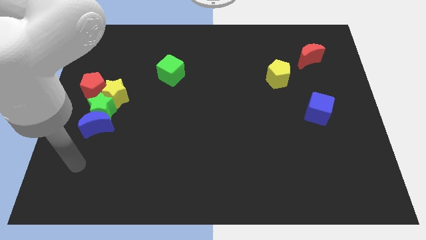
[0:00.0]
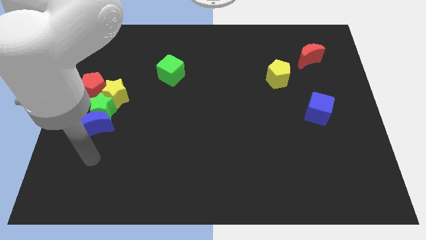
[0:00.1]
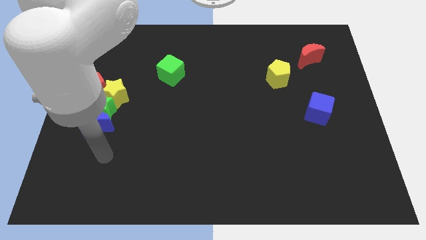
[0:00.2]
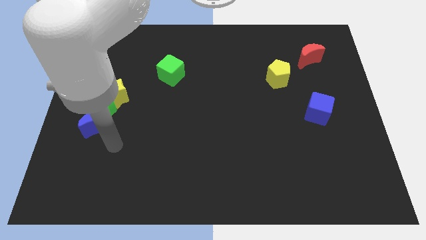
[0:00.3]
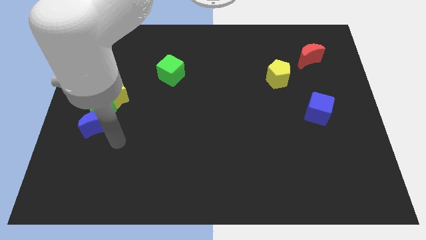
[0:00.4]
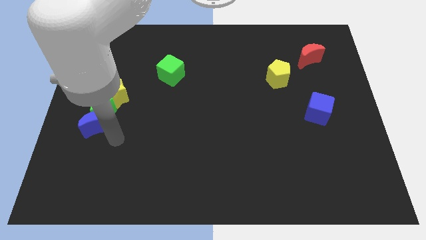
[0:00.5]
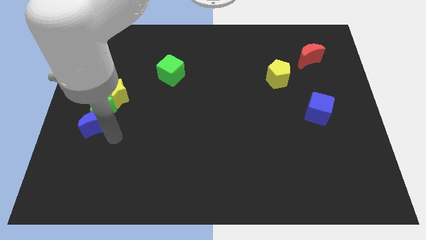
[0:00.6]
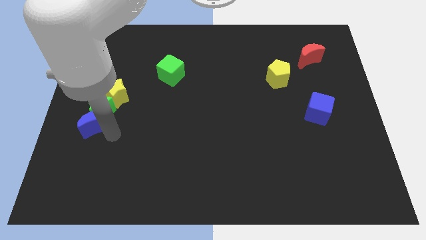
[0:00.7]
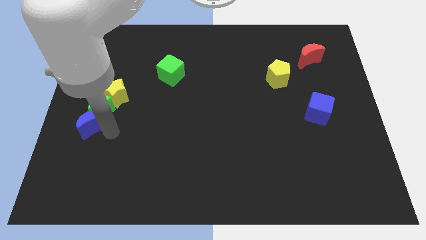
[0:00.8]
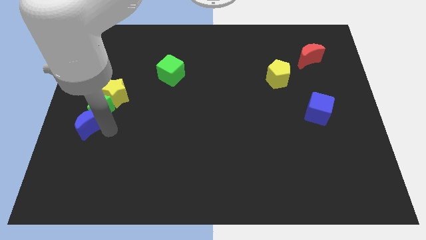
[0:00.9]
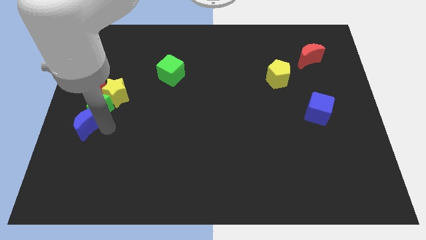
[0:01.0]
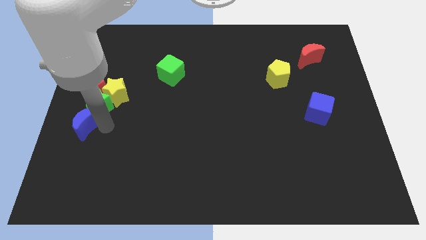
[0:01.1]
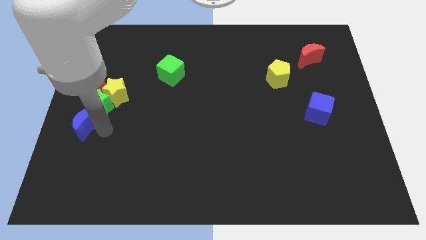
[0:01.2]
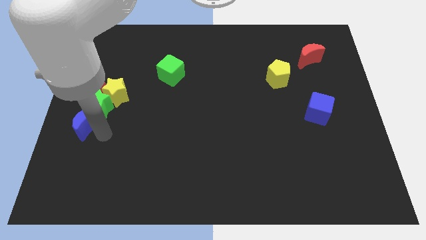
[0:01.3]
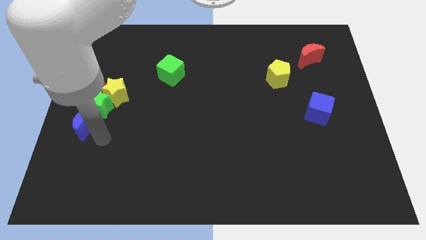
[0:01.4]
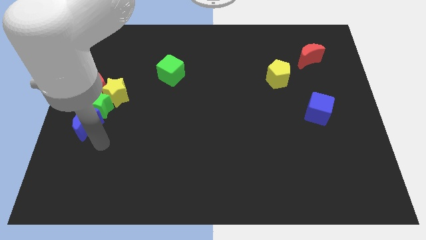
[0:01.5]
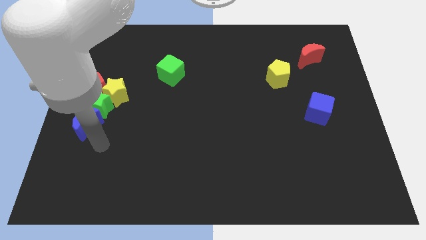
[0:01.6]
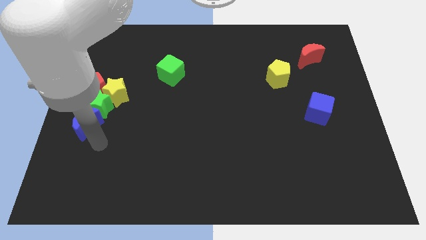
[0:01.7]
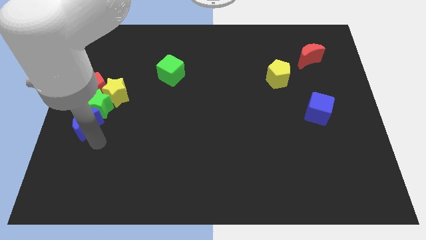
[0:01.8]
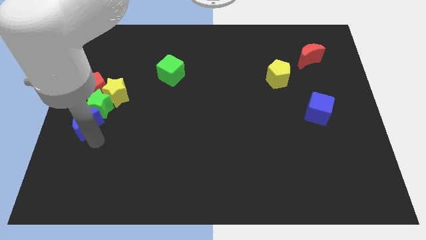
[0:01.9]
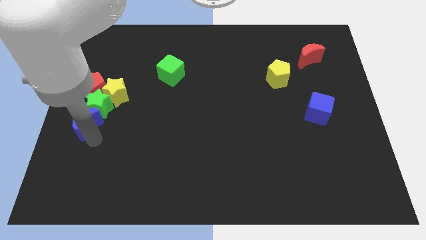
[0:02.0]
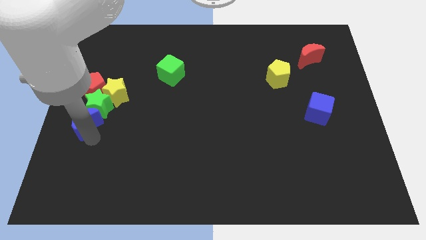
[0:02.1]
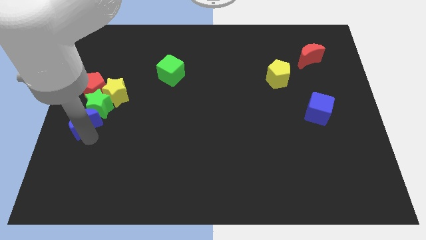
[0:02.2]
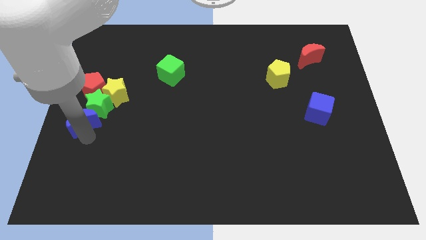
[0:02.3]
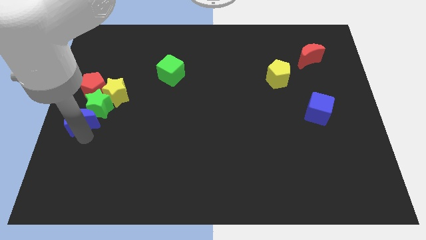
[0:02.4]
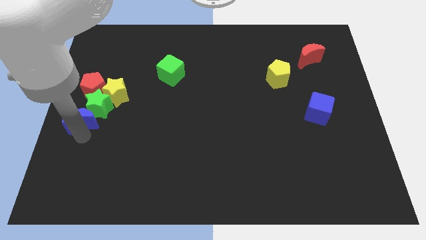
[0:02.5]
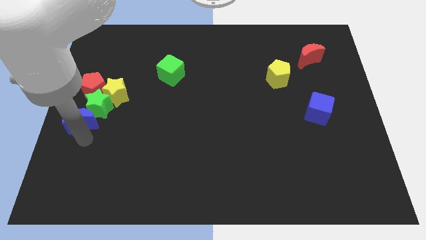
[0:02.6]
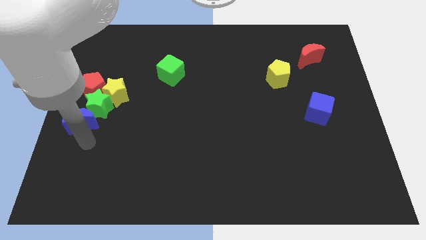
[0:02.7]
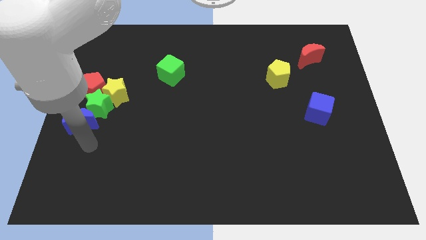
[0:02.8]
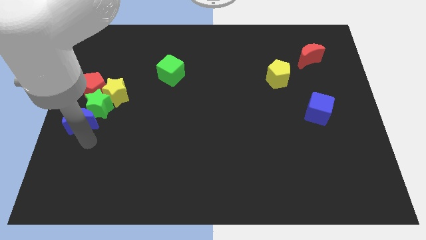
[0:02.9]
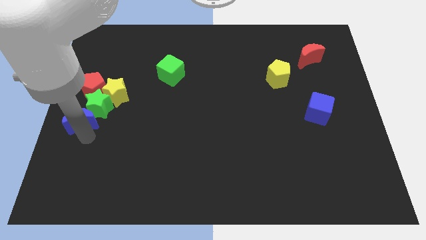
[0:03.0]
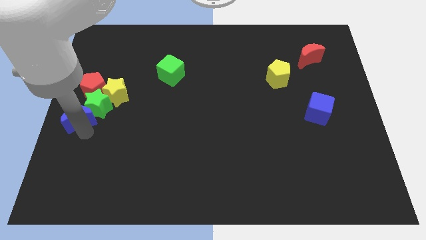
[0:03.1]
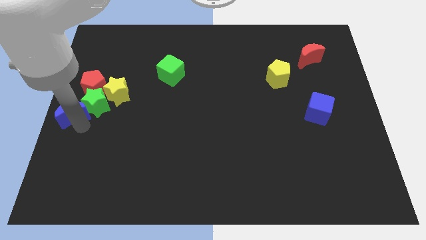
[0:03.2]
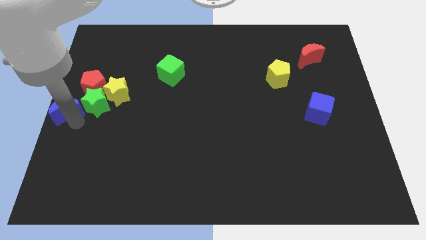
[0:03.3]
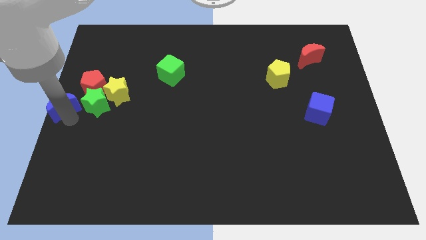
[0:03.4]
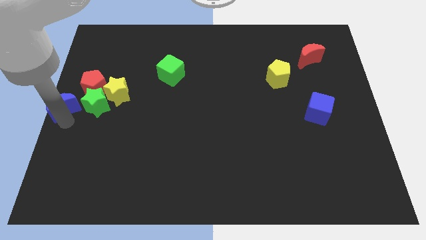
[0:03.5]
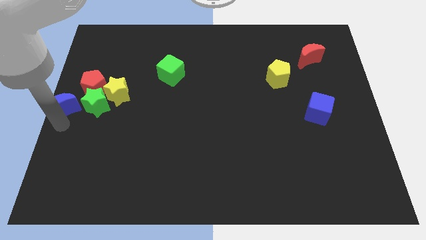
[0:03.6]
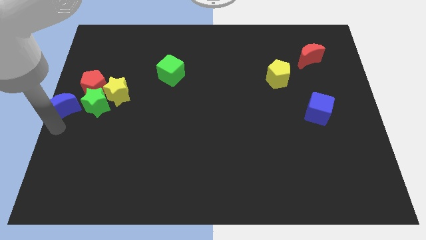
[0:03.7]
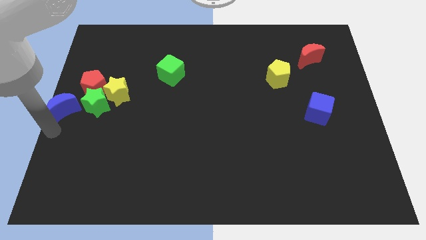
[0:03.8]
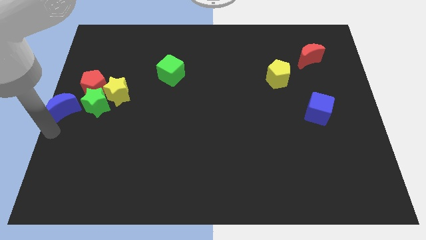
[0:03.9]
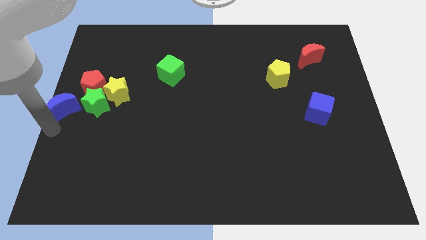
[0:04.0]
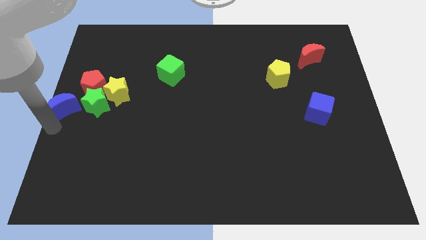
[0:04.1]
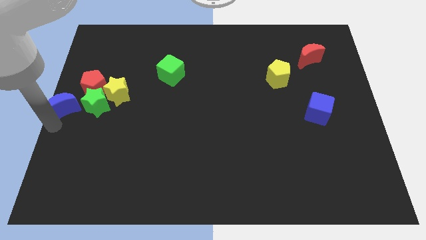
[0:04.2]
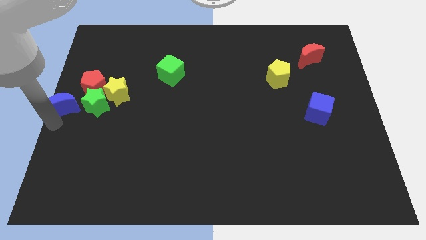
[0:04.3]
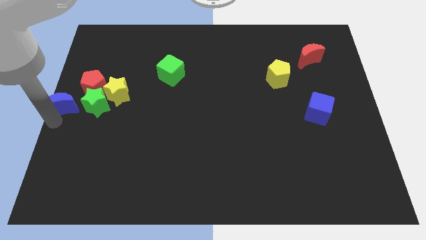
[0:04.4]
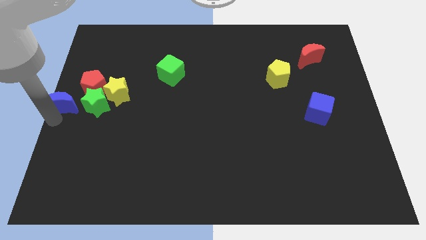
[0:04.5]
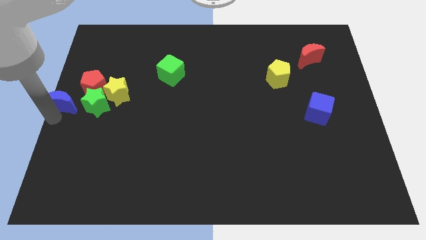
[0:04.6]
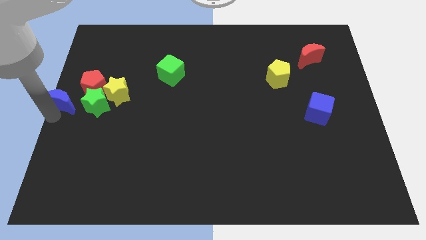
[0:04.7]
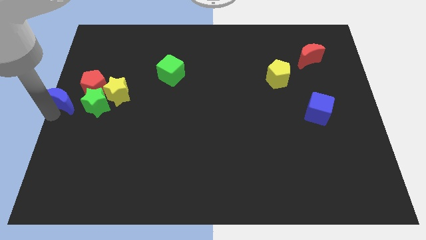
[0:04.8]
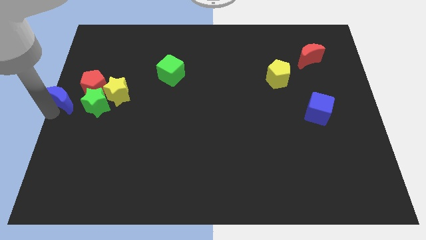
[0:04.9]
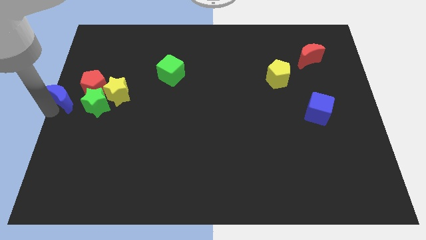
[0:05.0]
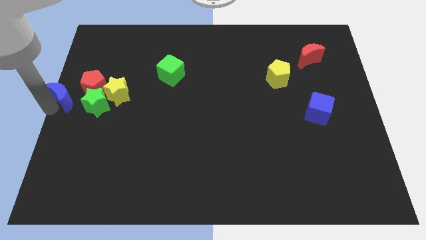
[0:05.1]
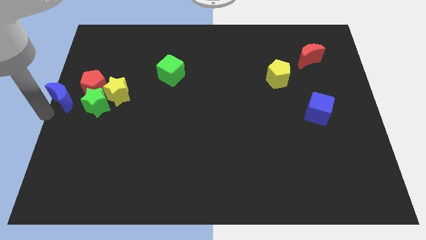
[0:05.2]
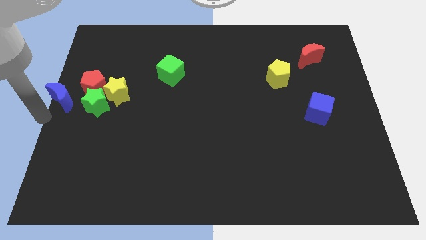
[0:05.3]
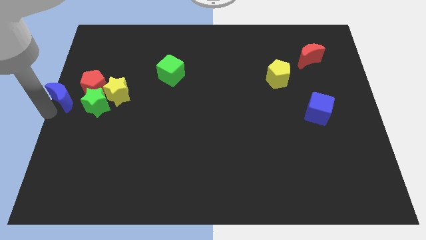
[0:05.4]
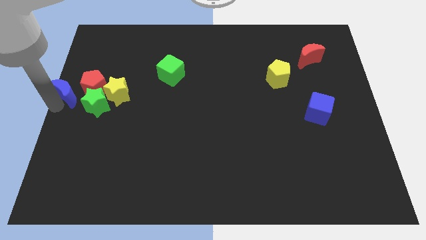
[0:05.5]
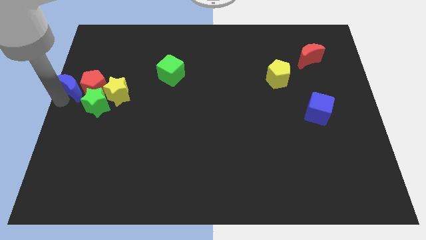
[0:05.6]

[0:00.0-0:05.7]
push the blue moon a little bit up

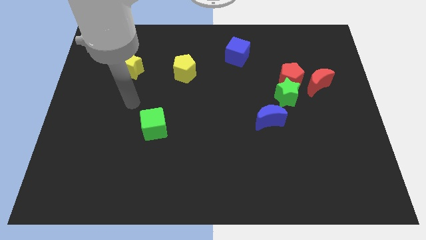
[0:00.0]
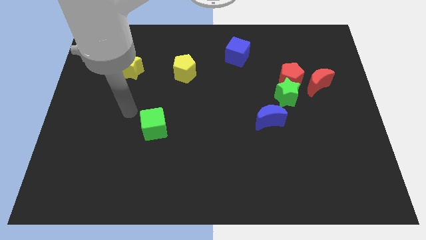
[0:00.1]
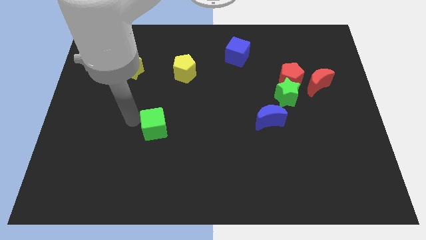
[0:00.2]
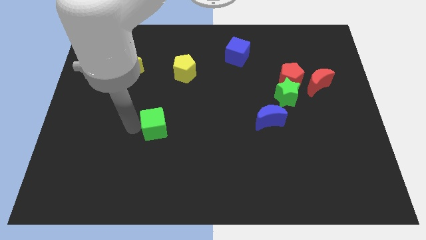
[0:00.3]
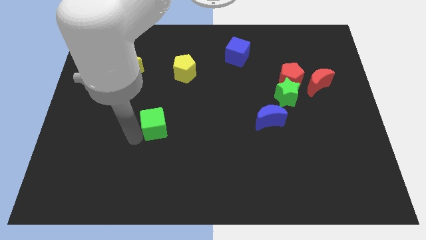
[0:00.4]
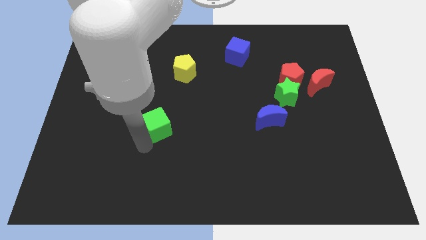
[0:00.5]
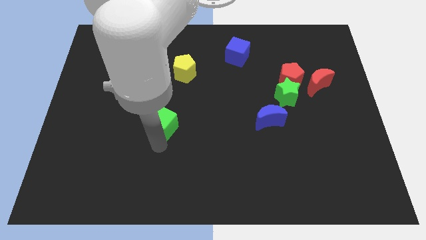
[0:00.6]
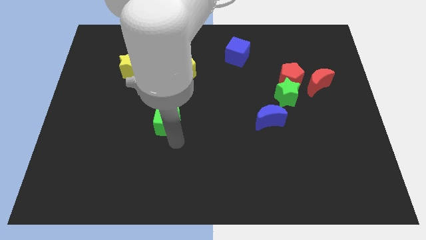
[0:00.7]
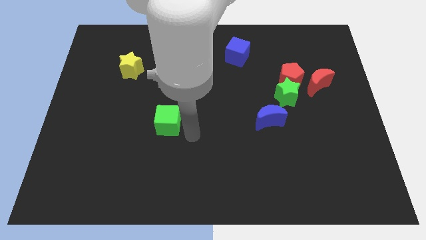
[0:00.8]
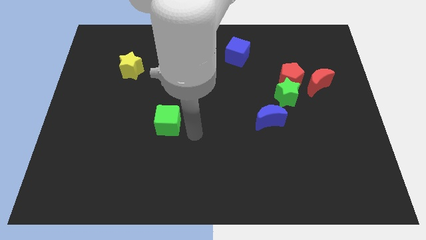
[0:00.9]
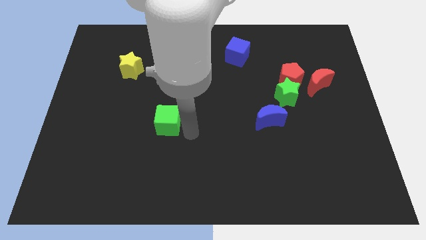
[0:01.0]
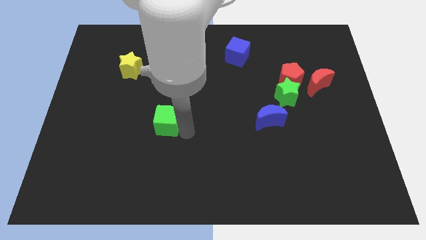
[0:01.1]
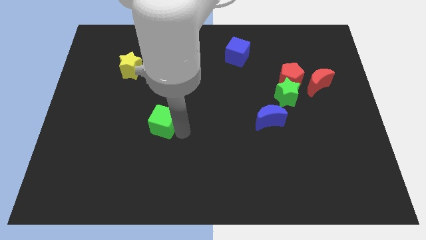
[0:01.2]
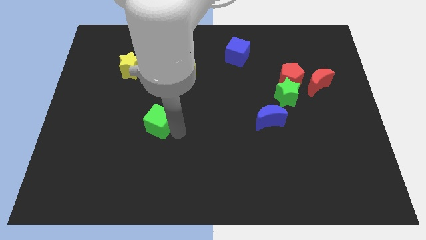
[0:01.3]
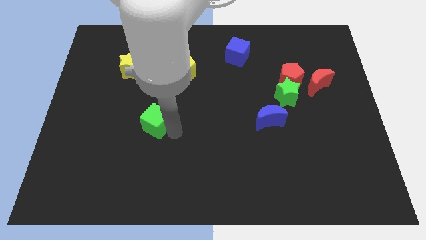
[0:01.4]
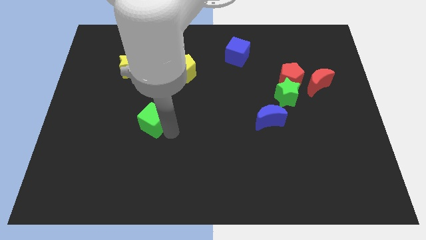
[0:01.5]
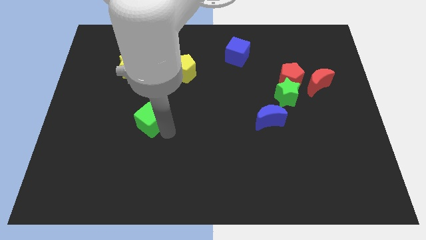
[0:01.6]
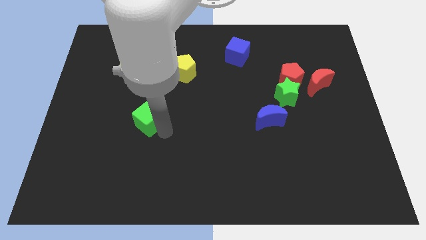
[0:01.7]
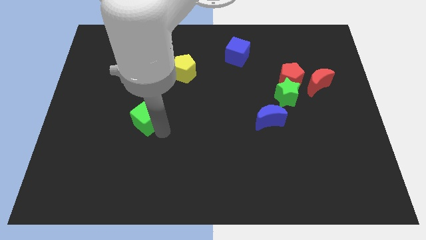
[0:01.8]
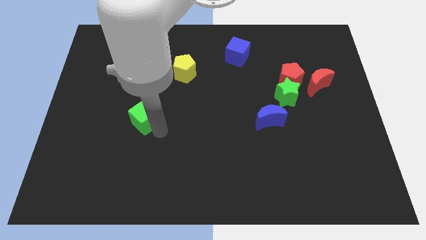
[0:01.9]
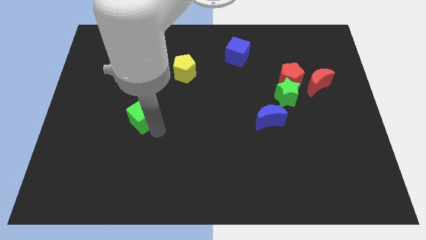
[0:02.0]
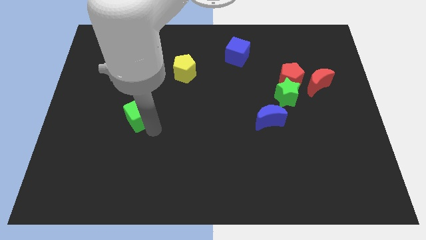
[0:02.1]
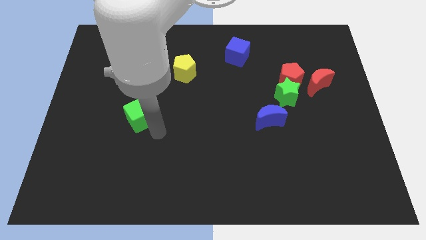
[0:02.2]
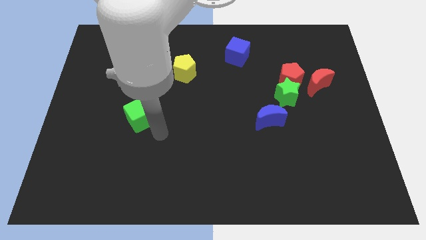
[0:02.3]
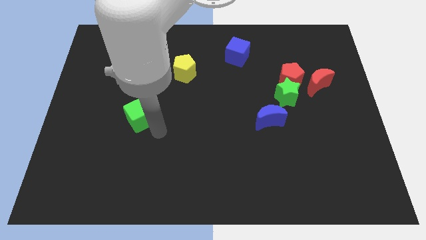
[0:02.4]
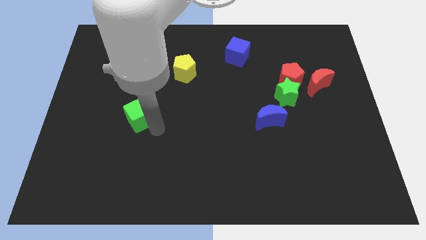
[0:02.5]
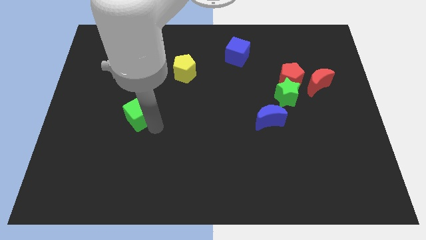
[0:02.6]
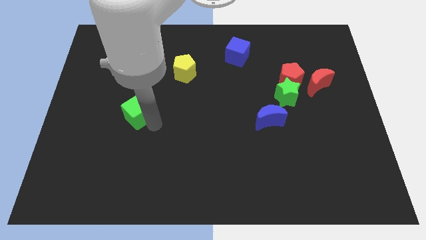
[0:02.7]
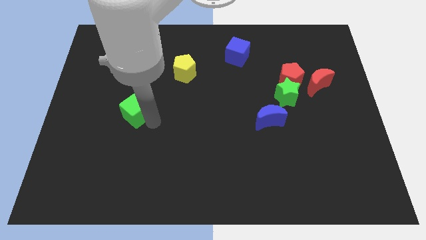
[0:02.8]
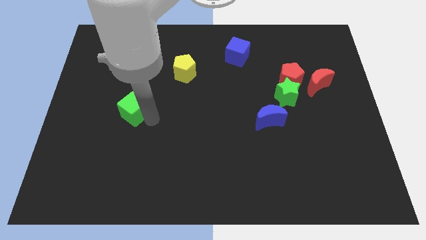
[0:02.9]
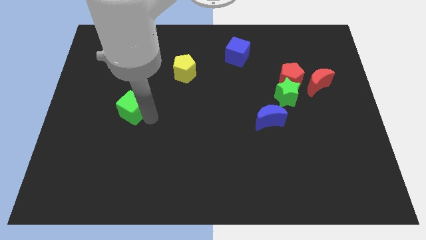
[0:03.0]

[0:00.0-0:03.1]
slightly slide the green cube up and to the left diagonally
